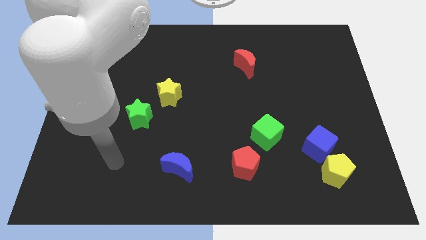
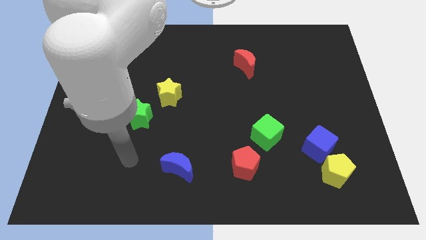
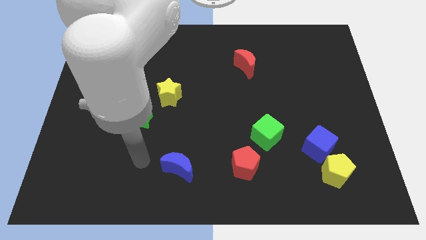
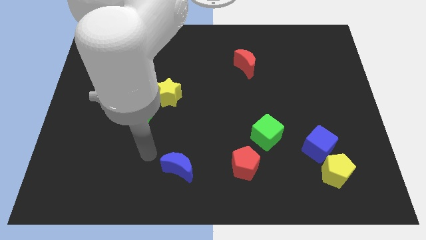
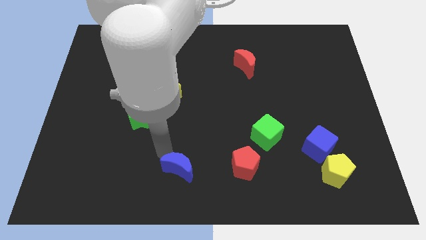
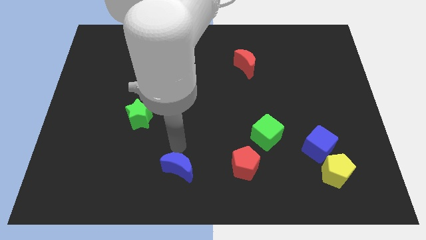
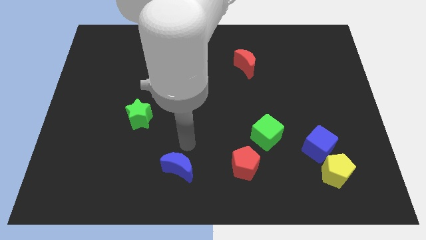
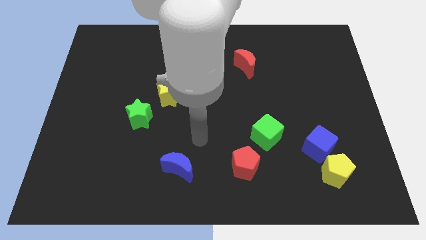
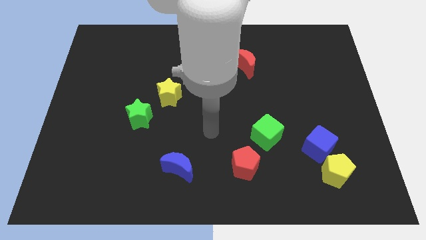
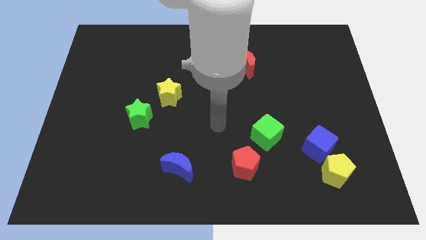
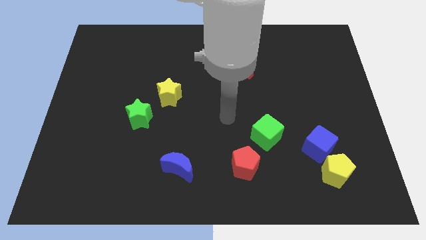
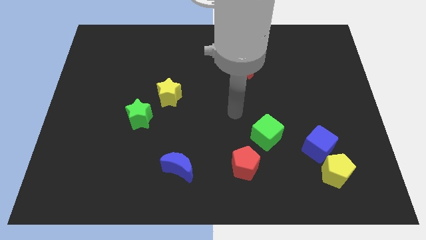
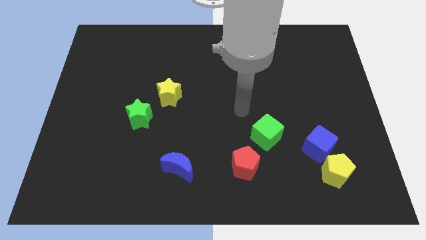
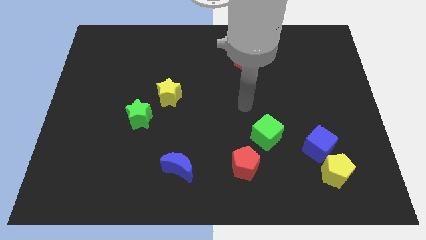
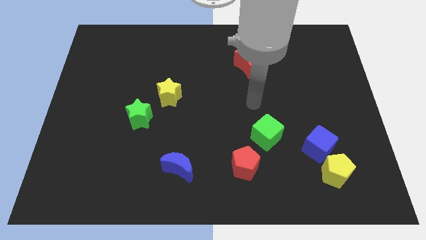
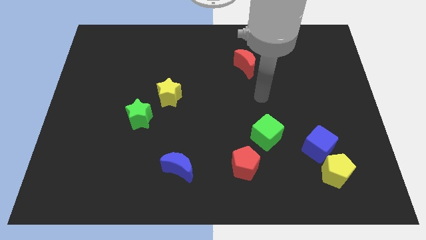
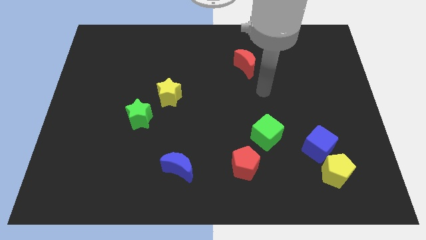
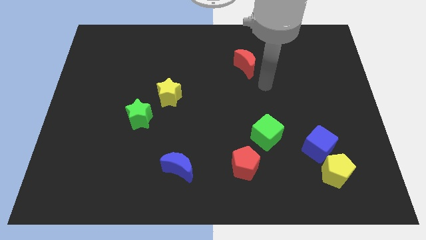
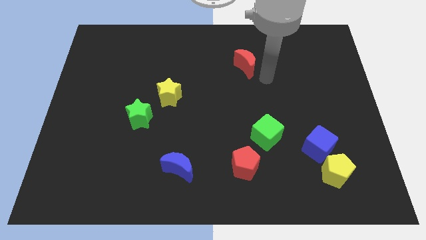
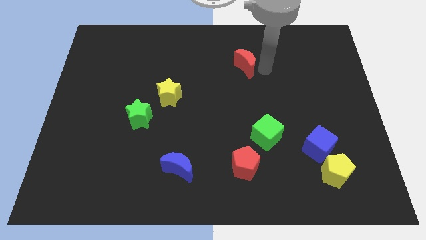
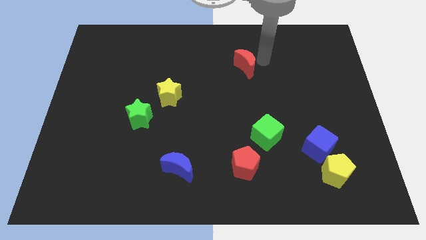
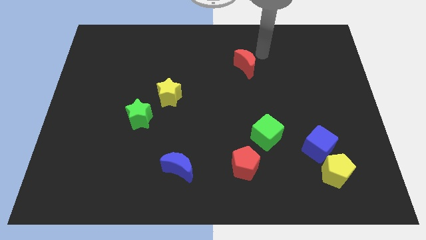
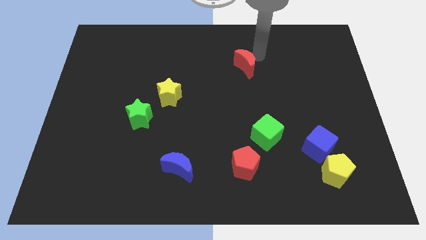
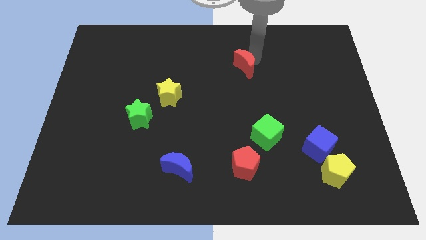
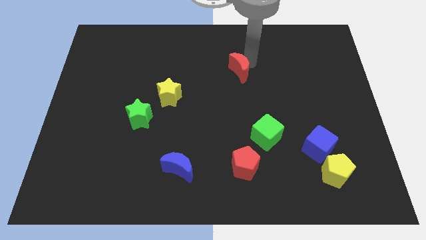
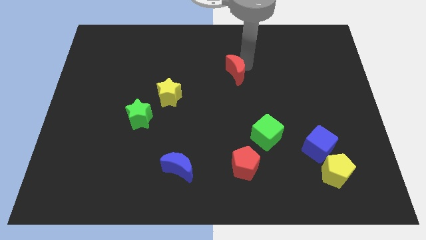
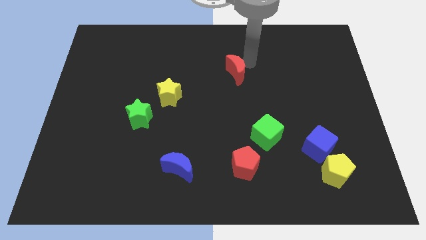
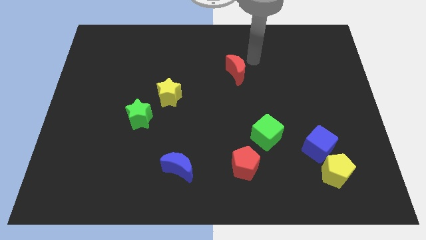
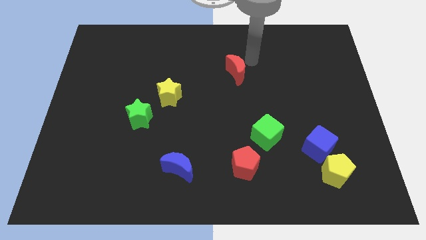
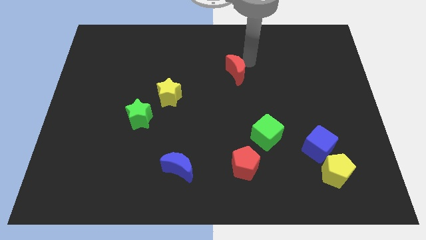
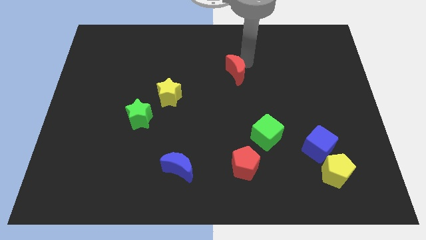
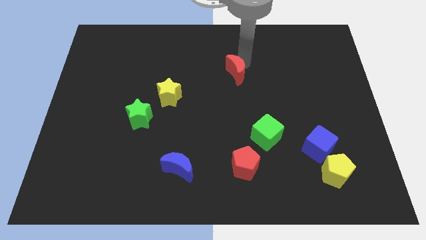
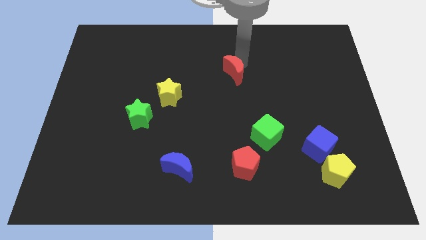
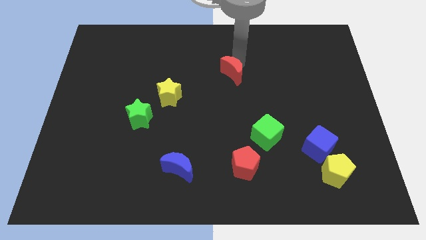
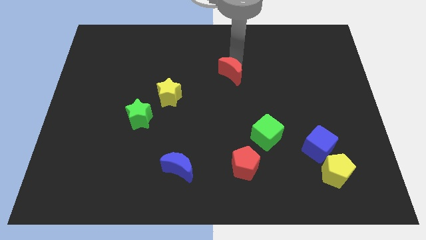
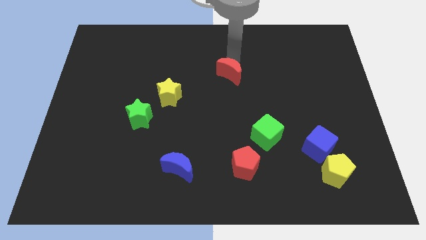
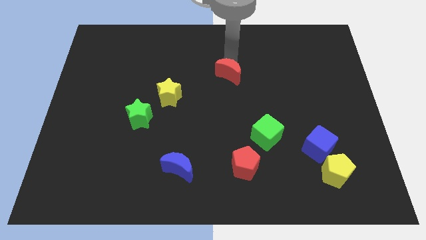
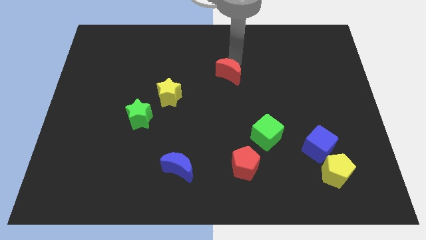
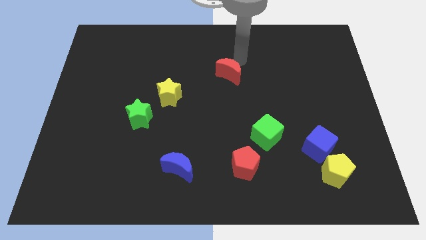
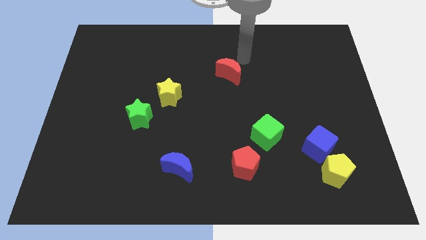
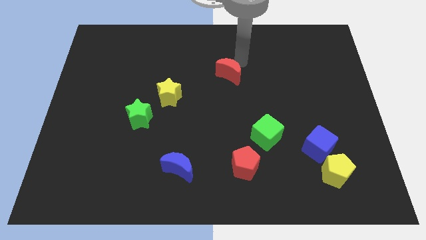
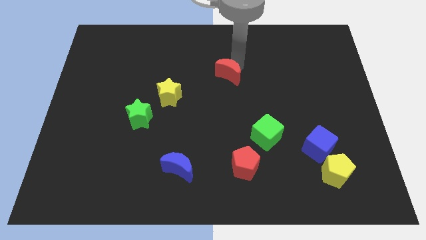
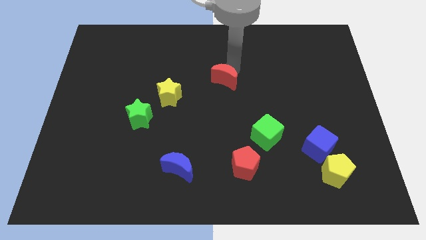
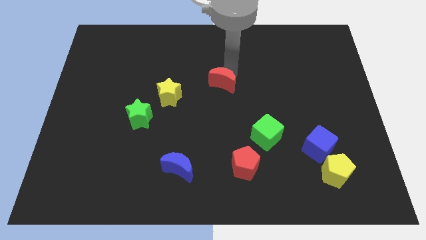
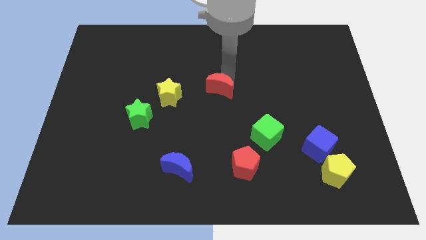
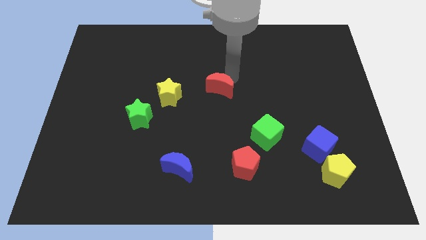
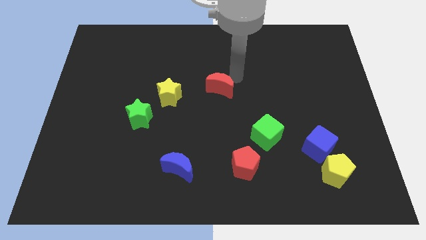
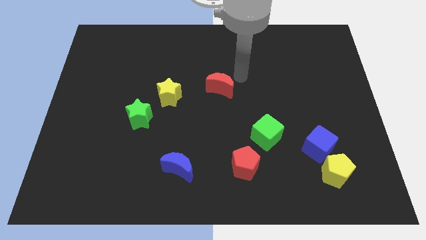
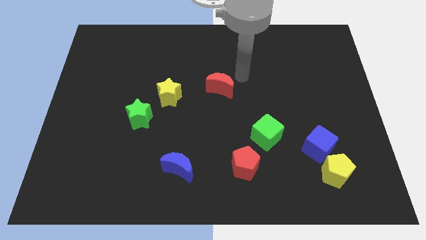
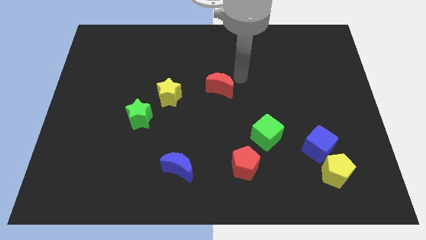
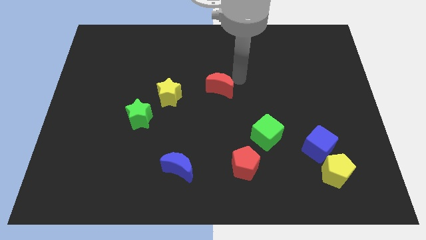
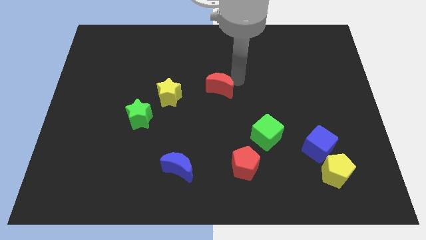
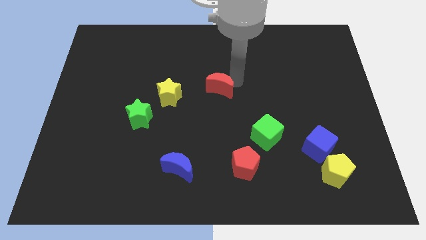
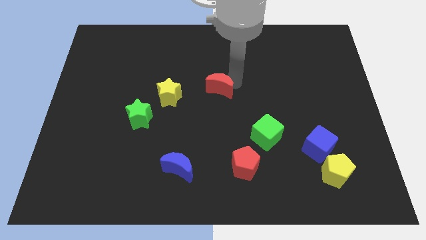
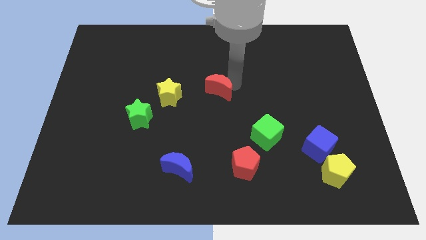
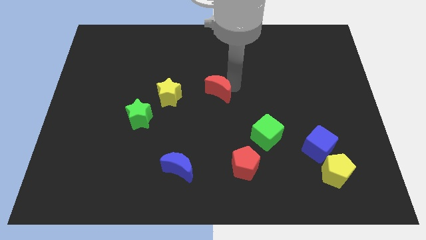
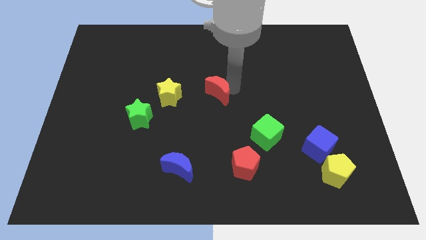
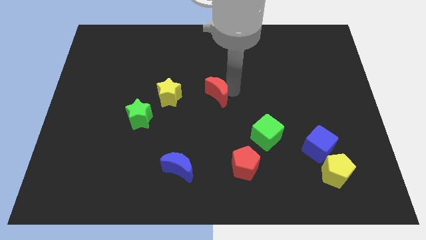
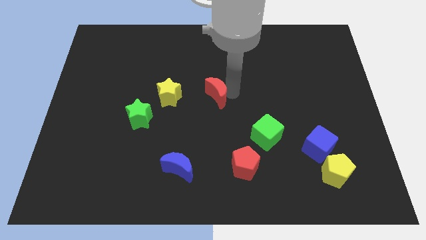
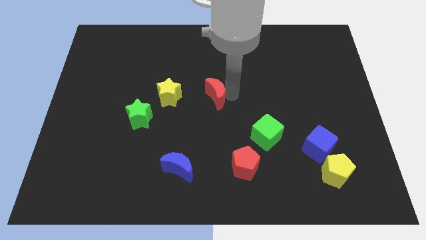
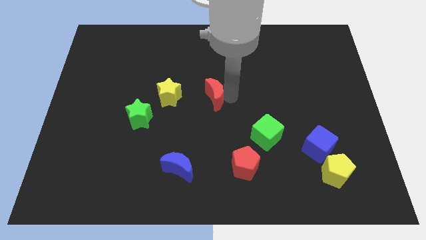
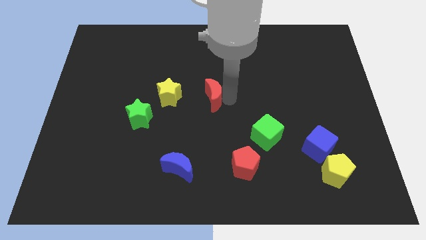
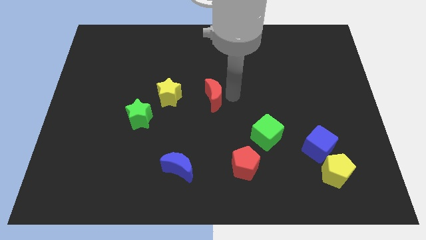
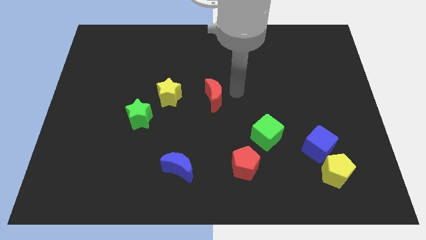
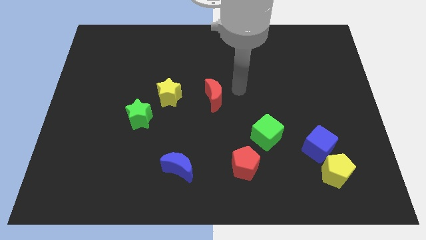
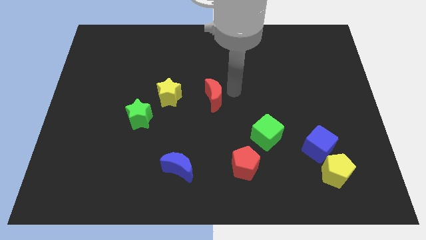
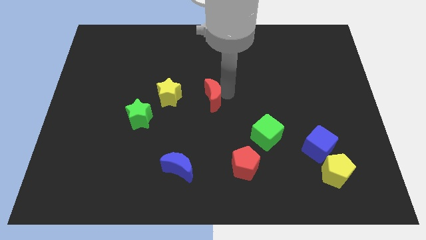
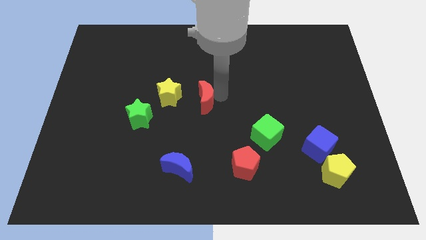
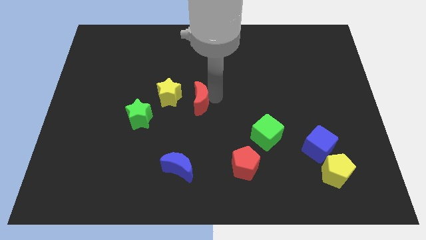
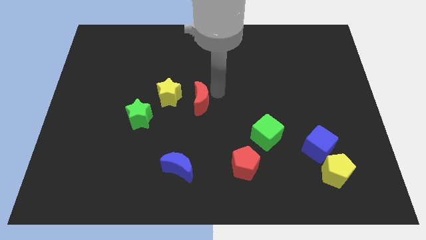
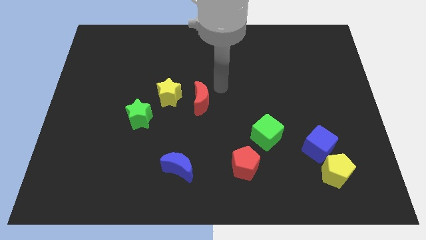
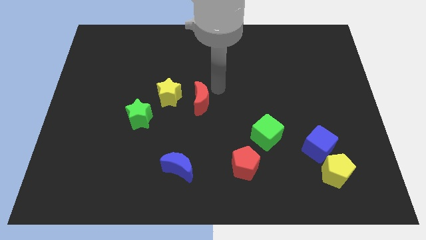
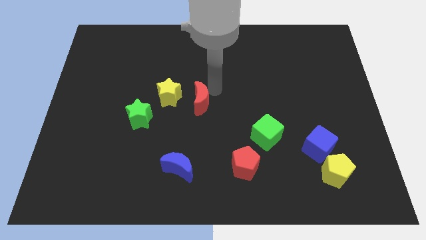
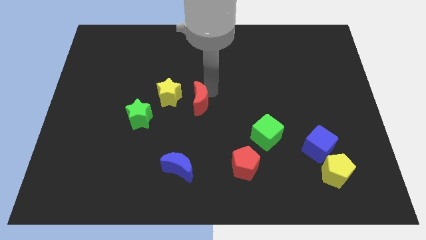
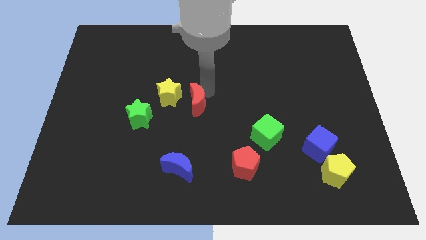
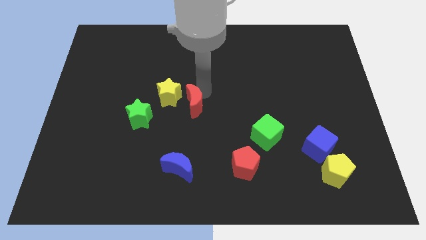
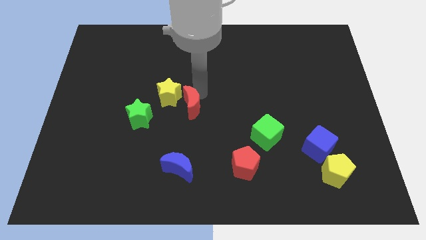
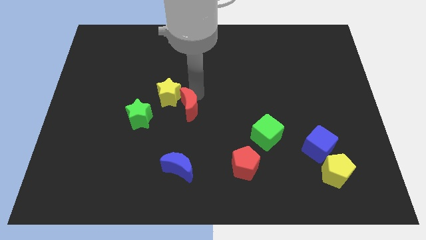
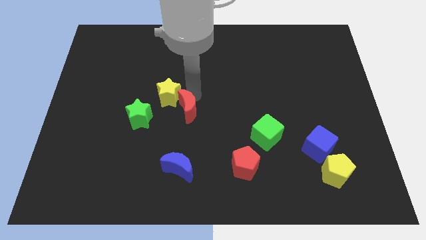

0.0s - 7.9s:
move the red moon down and to the left

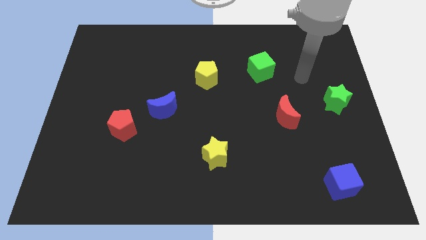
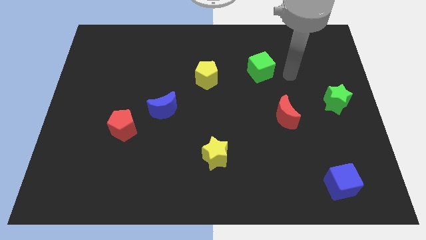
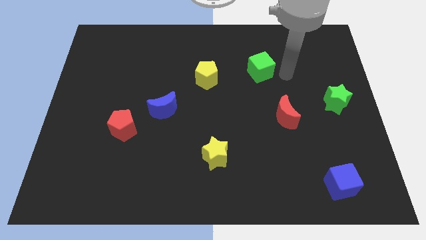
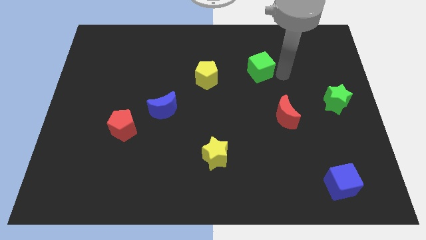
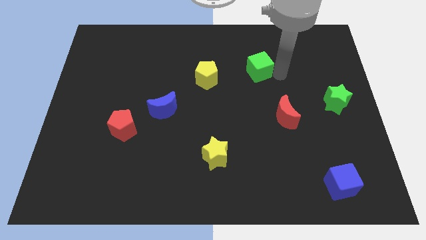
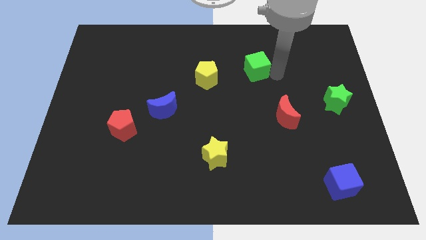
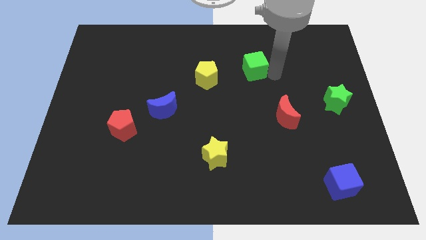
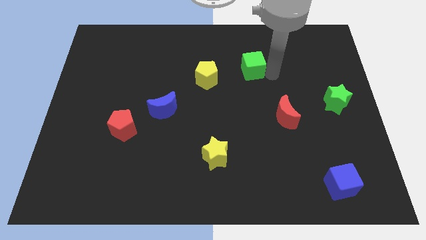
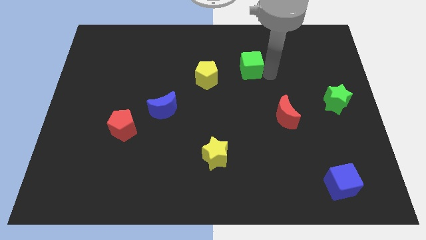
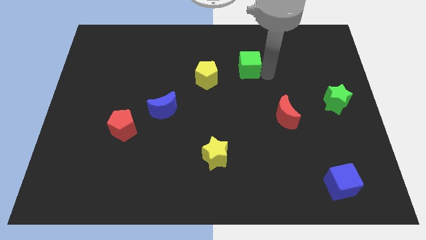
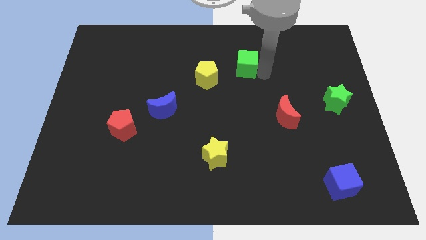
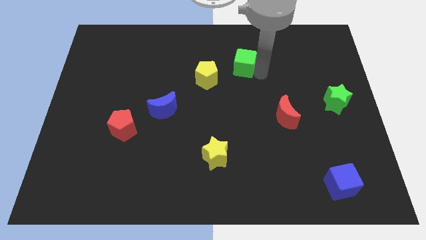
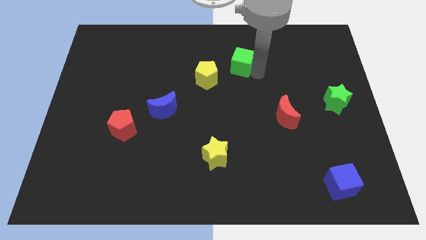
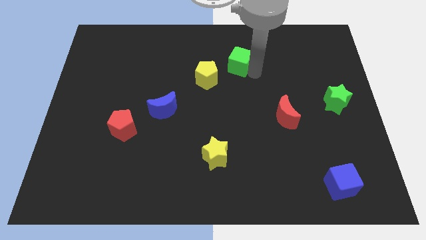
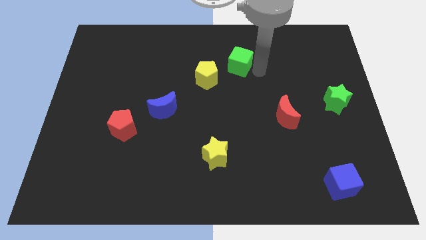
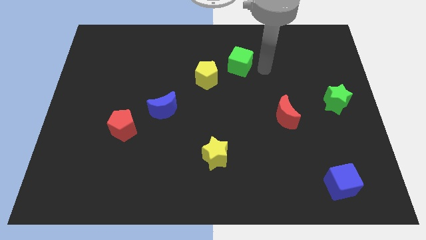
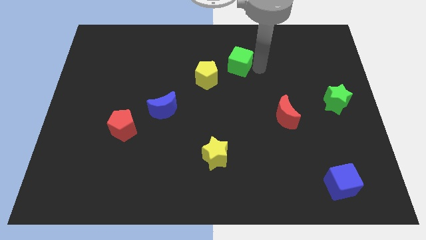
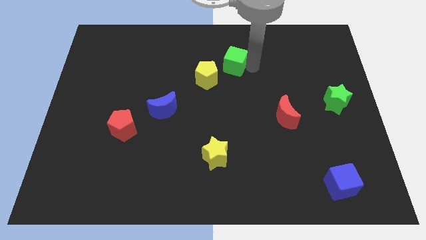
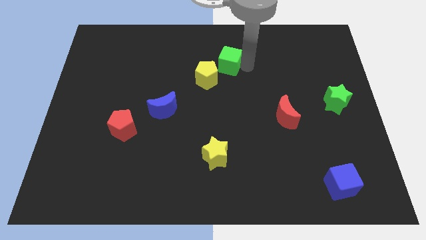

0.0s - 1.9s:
slide the green cube left slightly
